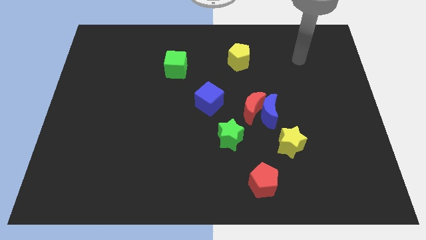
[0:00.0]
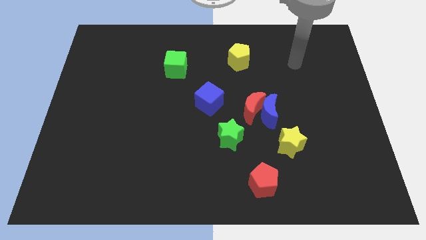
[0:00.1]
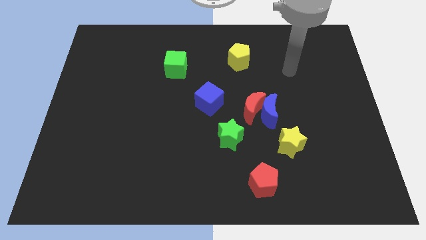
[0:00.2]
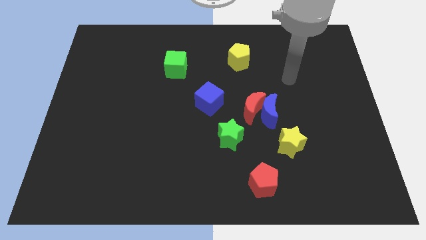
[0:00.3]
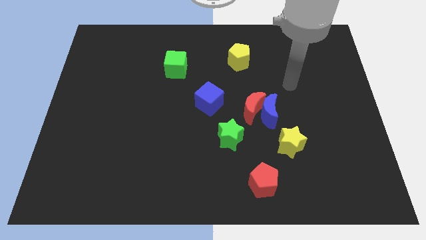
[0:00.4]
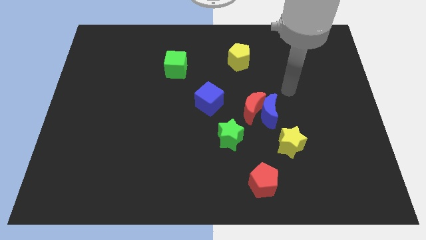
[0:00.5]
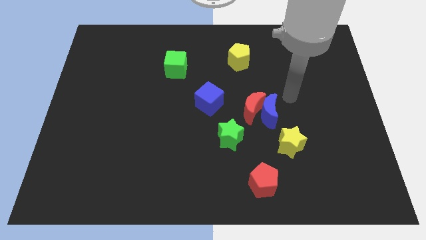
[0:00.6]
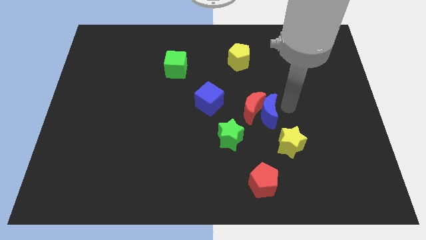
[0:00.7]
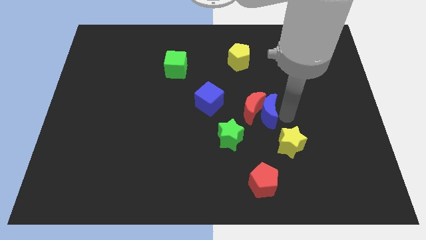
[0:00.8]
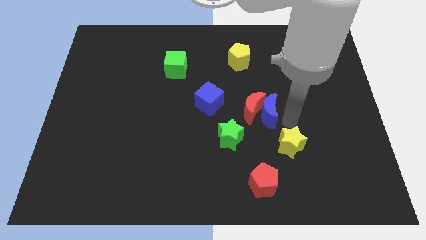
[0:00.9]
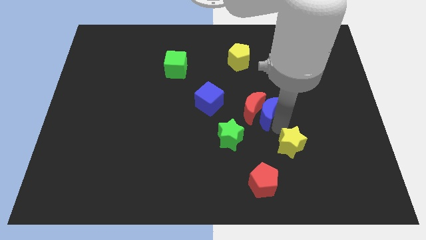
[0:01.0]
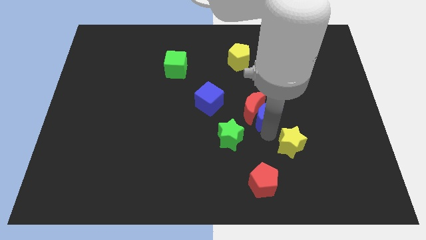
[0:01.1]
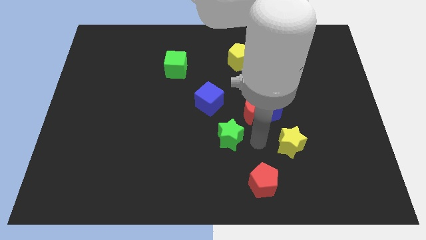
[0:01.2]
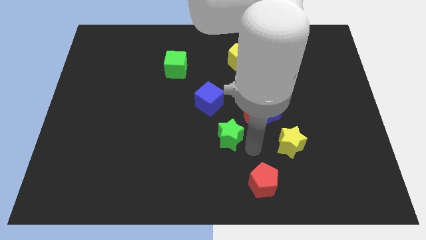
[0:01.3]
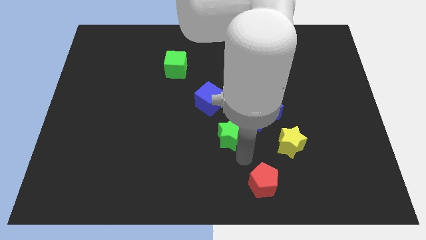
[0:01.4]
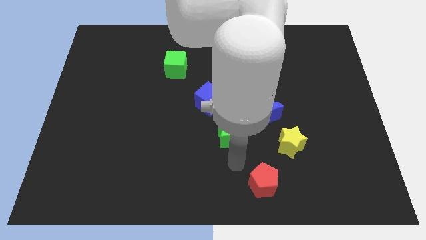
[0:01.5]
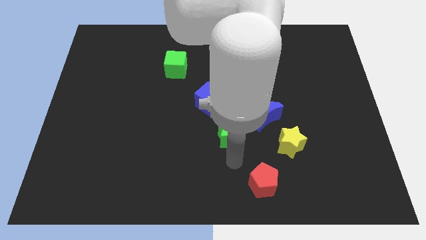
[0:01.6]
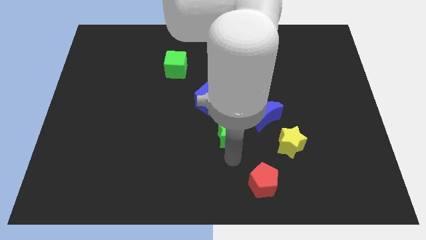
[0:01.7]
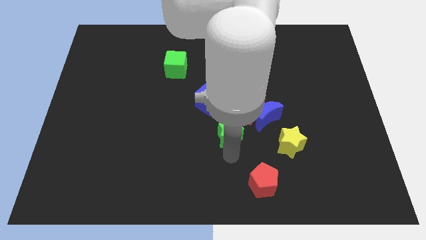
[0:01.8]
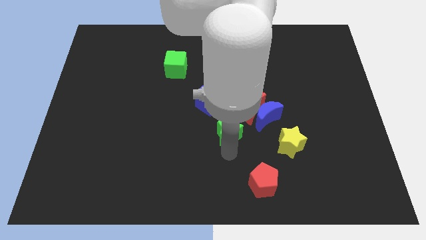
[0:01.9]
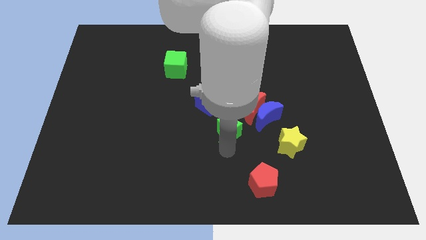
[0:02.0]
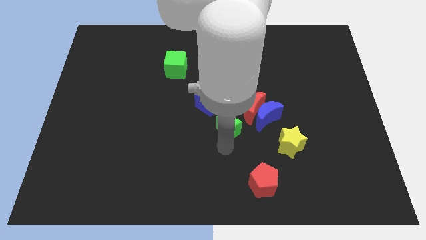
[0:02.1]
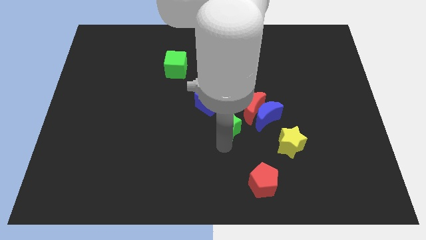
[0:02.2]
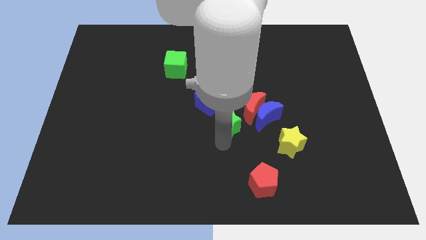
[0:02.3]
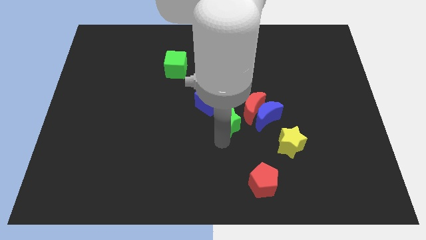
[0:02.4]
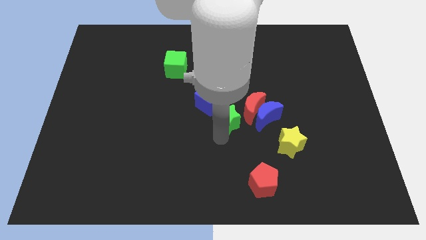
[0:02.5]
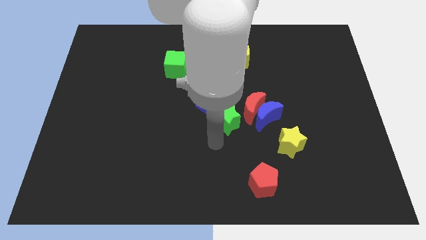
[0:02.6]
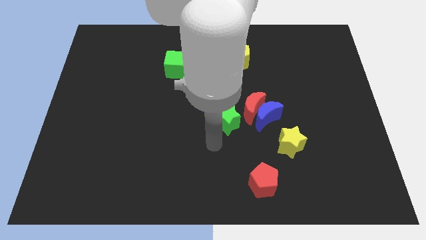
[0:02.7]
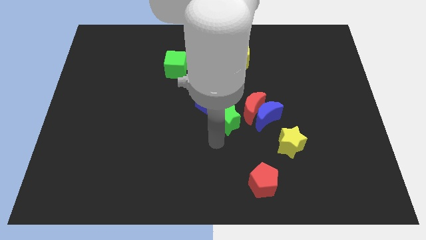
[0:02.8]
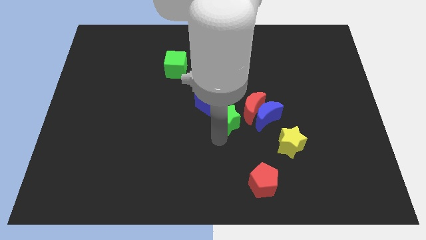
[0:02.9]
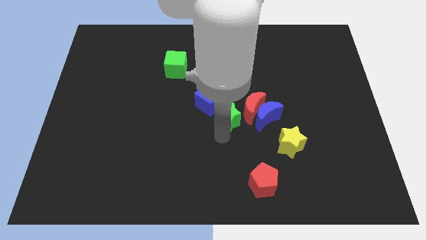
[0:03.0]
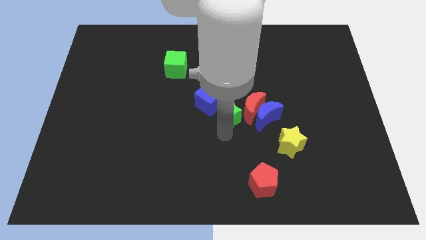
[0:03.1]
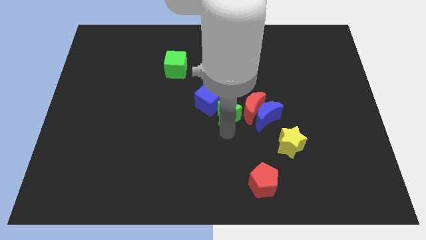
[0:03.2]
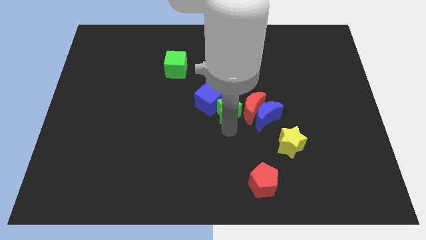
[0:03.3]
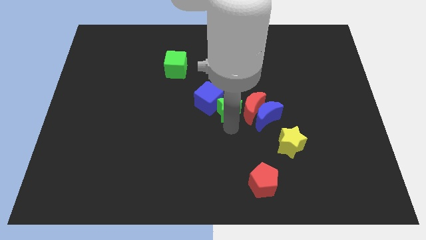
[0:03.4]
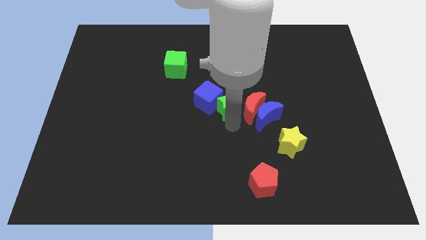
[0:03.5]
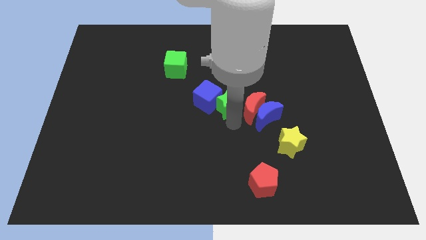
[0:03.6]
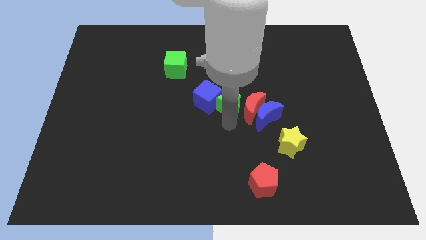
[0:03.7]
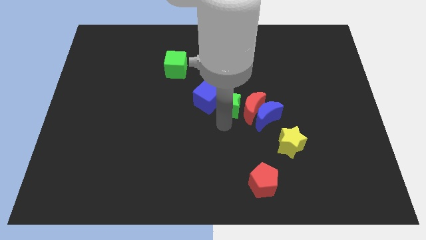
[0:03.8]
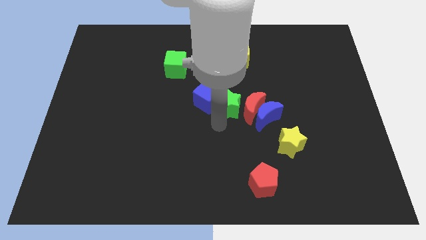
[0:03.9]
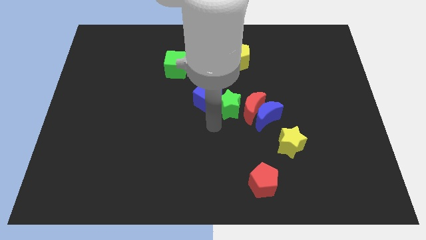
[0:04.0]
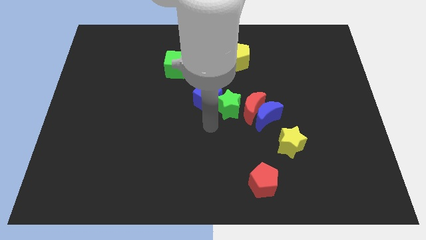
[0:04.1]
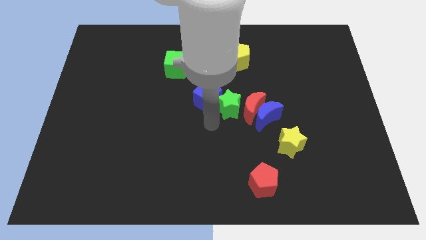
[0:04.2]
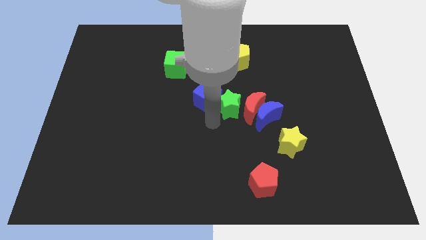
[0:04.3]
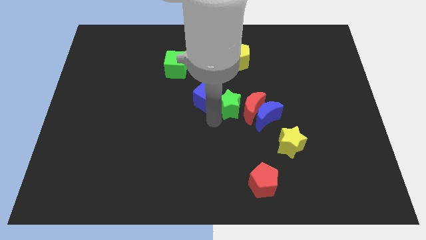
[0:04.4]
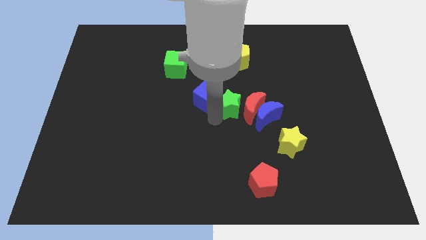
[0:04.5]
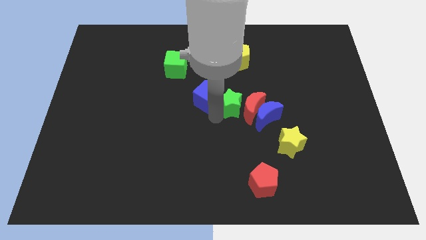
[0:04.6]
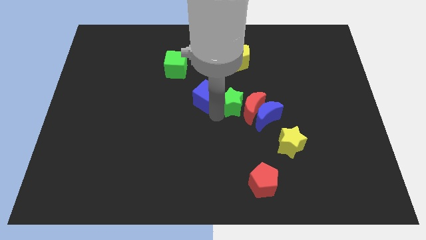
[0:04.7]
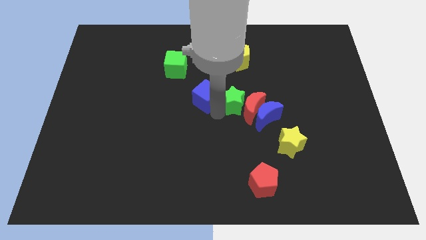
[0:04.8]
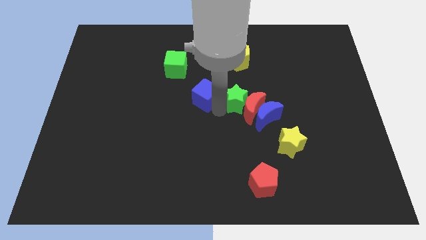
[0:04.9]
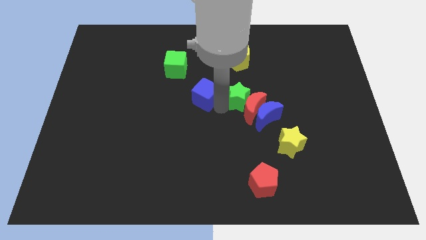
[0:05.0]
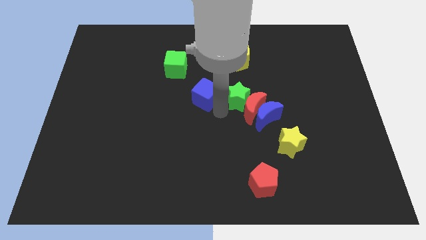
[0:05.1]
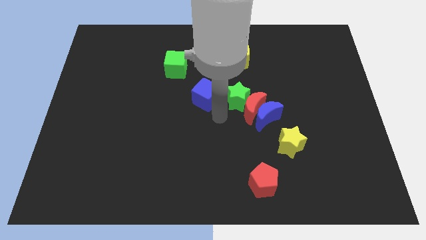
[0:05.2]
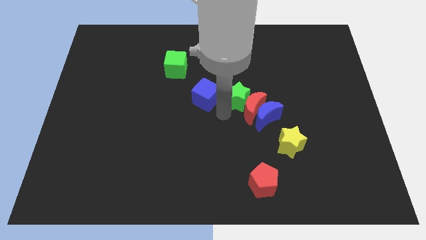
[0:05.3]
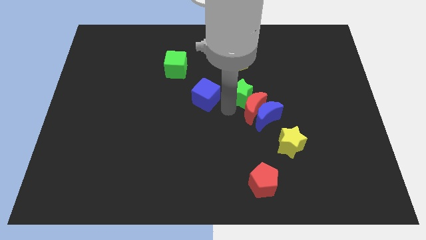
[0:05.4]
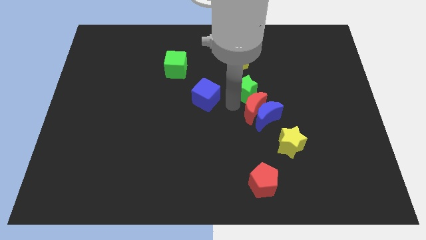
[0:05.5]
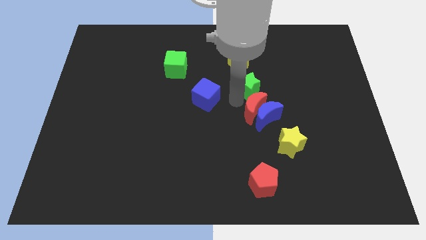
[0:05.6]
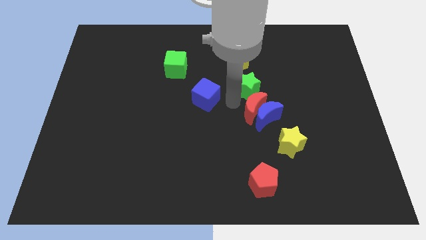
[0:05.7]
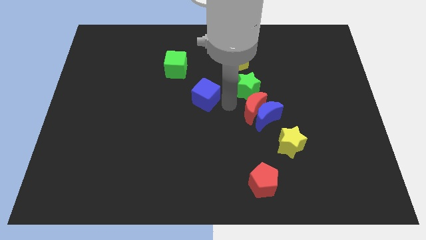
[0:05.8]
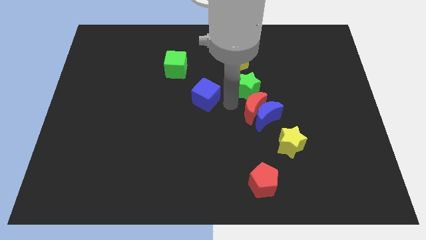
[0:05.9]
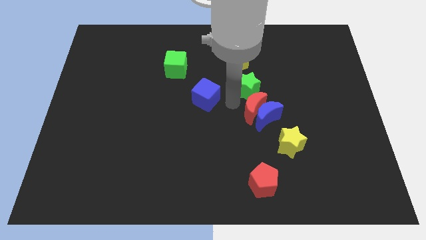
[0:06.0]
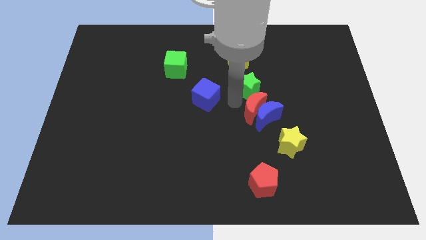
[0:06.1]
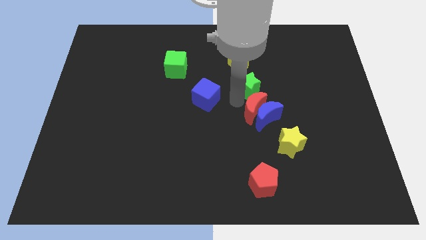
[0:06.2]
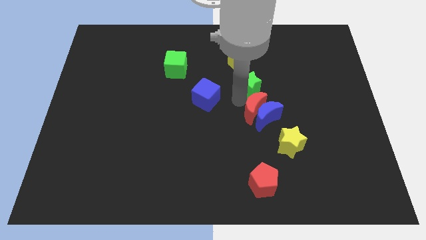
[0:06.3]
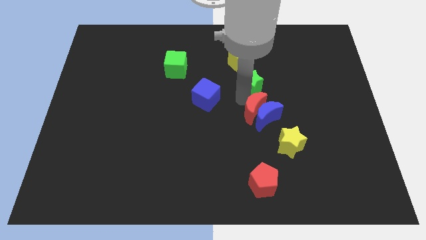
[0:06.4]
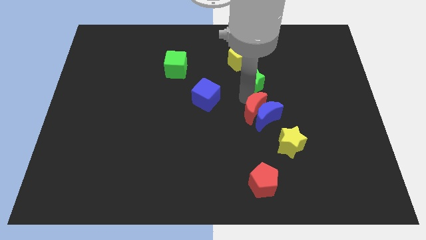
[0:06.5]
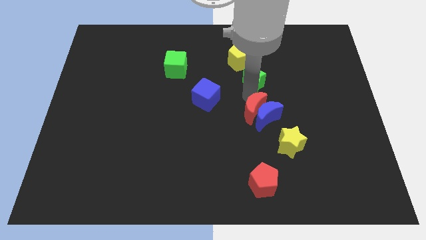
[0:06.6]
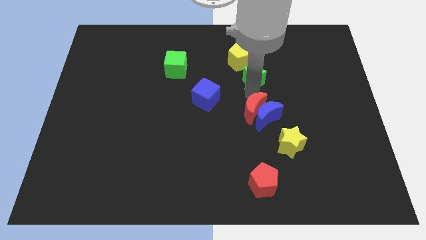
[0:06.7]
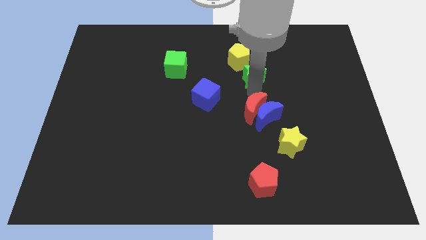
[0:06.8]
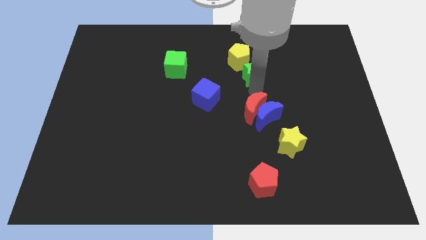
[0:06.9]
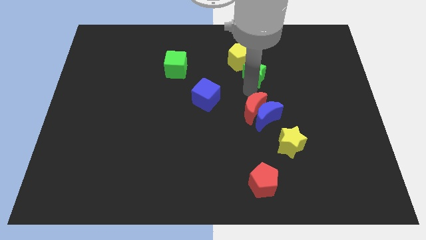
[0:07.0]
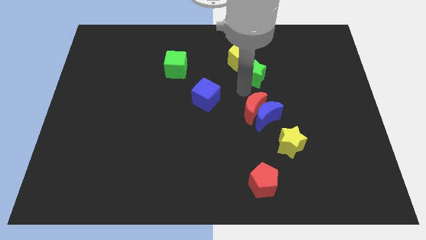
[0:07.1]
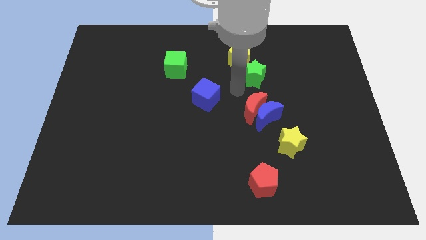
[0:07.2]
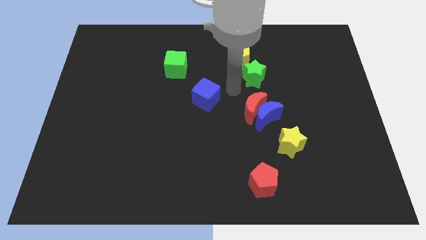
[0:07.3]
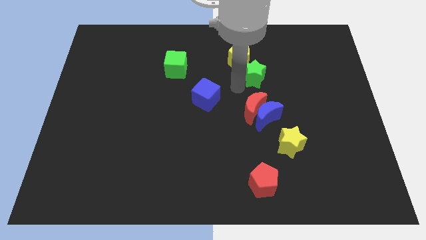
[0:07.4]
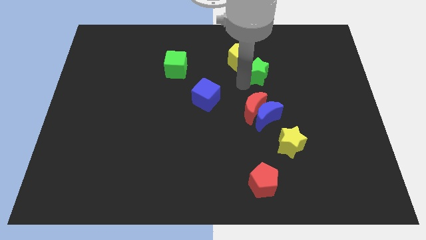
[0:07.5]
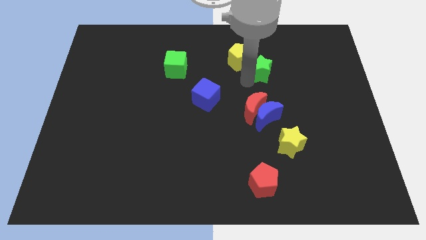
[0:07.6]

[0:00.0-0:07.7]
put the green star just right of the yellow pentagon
